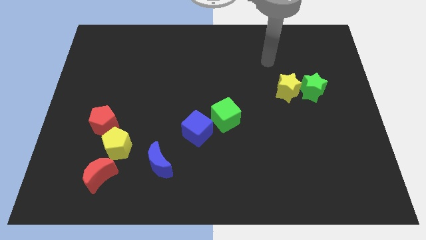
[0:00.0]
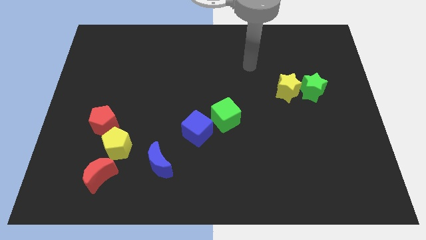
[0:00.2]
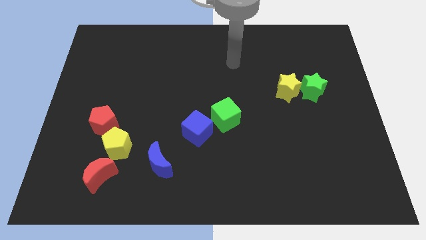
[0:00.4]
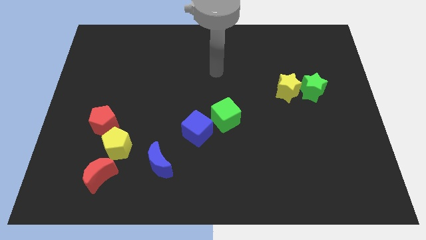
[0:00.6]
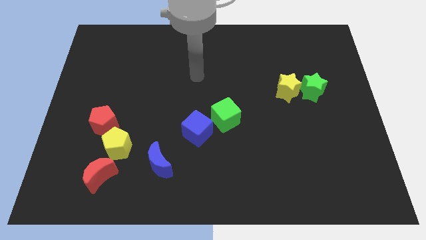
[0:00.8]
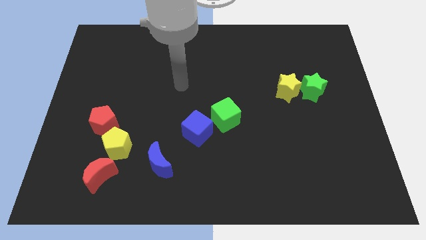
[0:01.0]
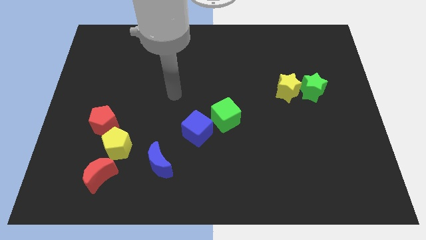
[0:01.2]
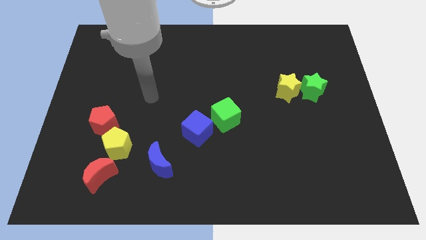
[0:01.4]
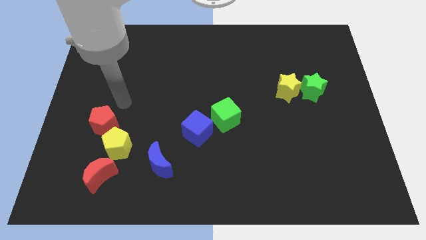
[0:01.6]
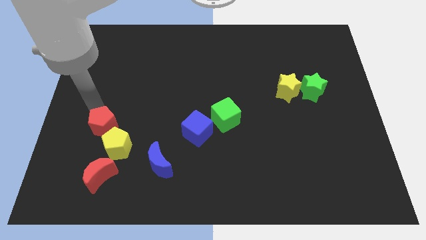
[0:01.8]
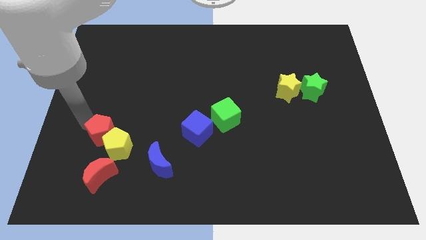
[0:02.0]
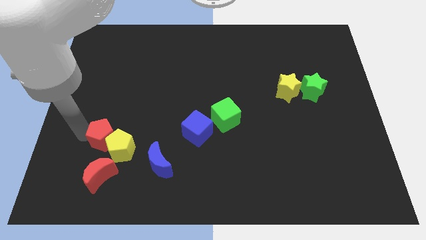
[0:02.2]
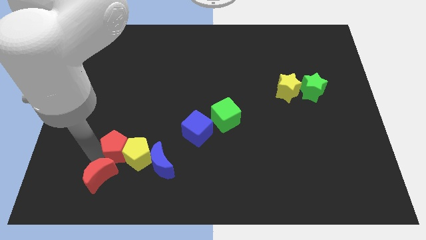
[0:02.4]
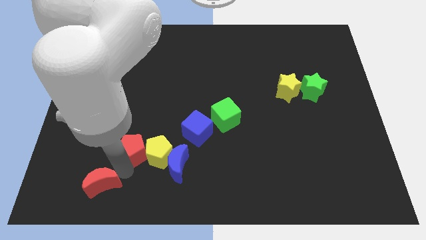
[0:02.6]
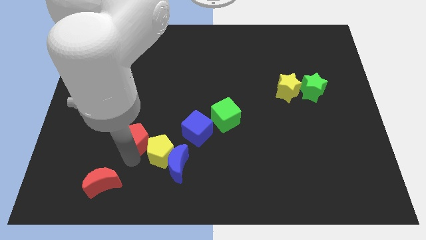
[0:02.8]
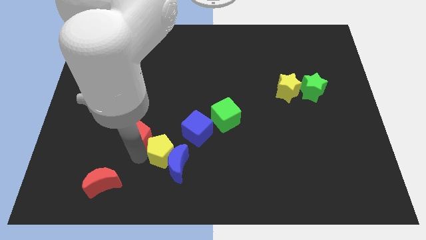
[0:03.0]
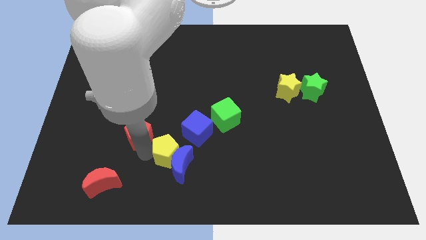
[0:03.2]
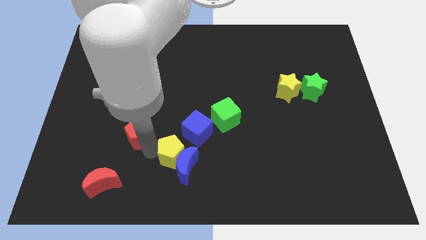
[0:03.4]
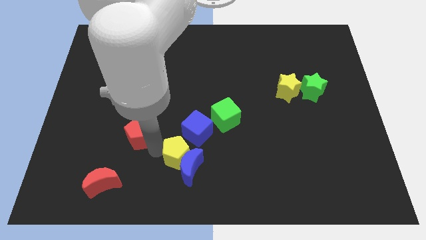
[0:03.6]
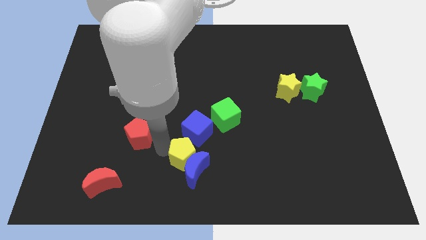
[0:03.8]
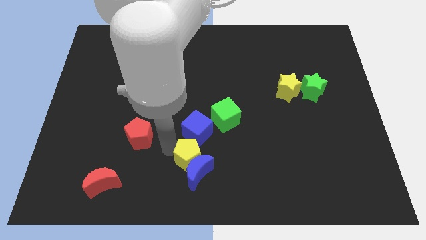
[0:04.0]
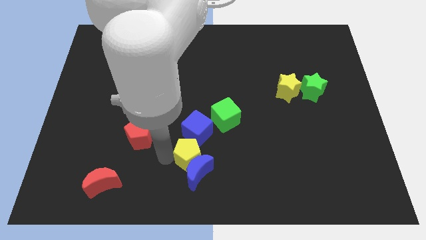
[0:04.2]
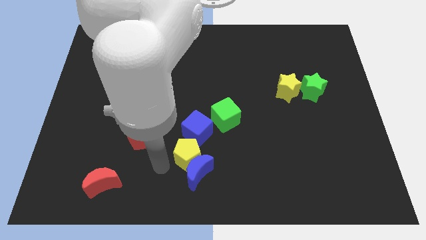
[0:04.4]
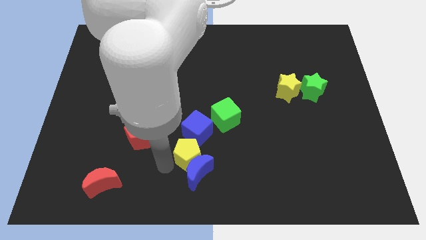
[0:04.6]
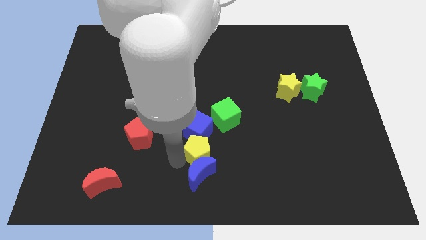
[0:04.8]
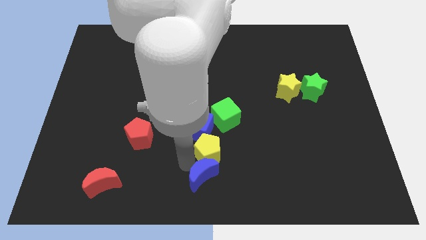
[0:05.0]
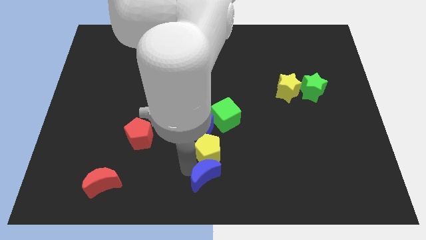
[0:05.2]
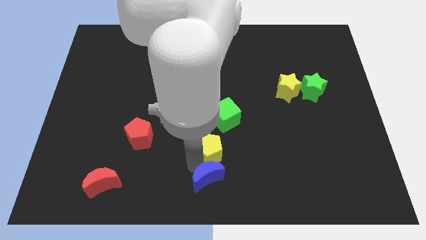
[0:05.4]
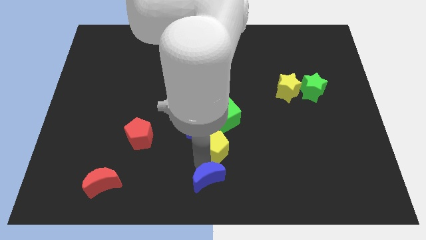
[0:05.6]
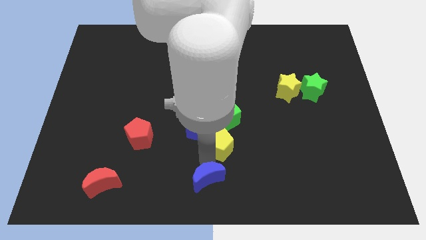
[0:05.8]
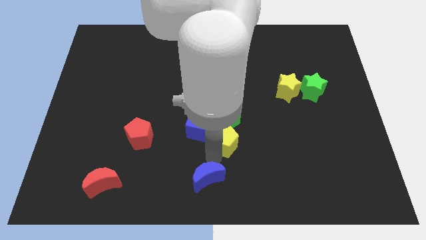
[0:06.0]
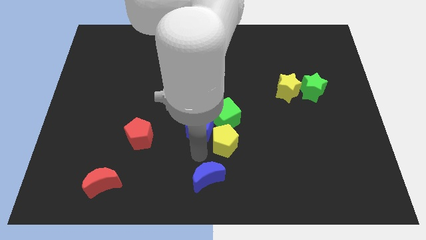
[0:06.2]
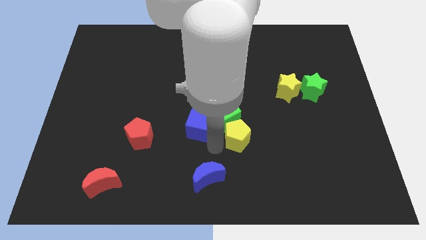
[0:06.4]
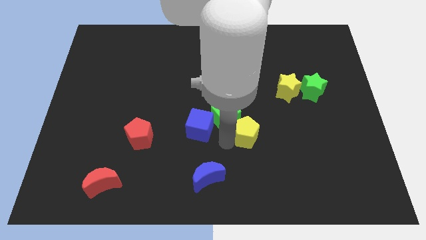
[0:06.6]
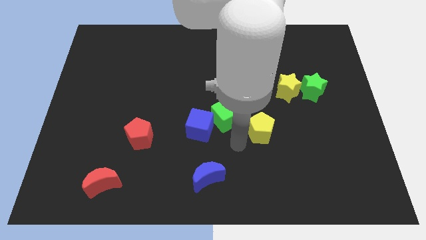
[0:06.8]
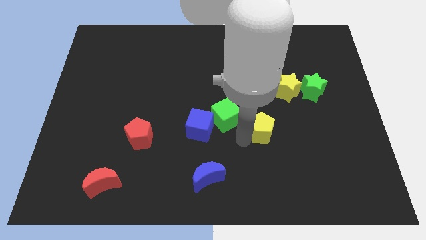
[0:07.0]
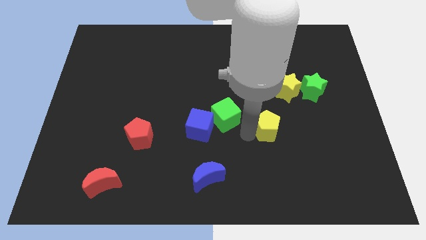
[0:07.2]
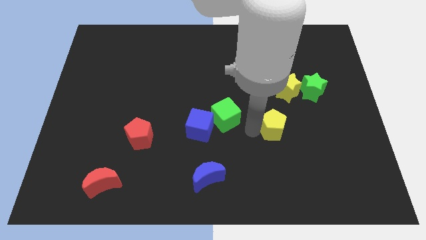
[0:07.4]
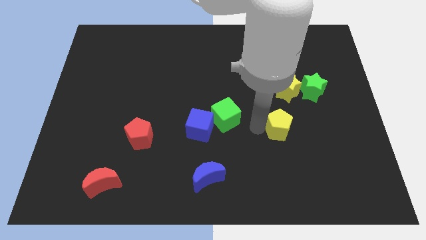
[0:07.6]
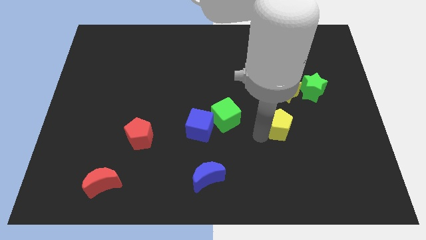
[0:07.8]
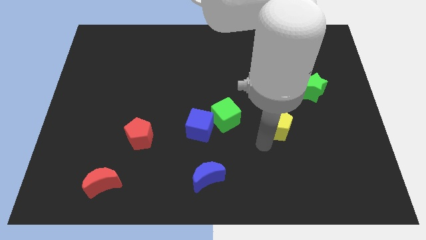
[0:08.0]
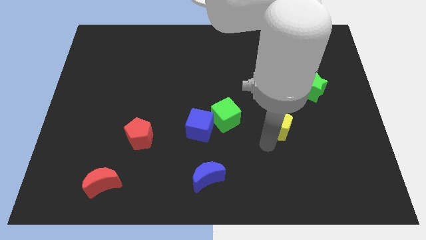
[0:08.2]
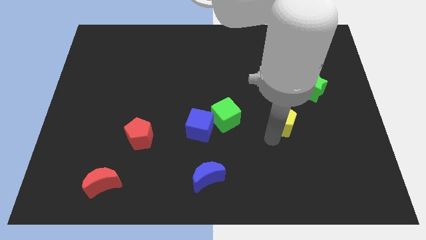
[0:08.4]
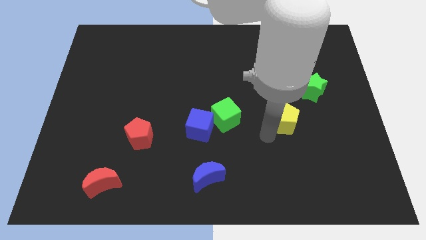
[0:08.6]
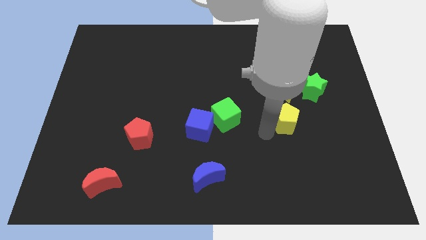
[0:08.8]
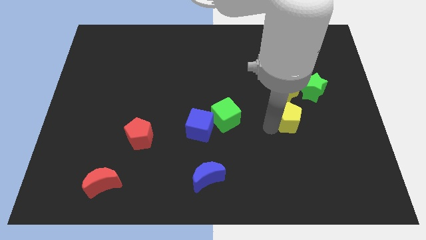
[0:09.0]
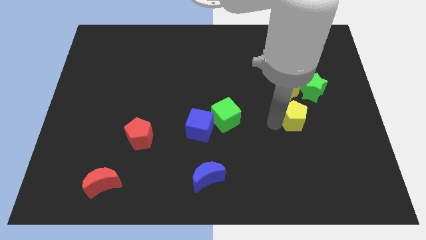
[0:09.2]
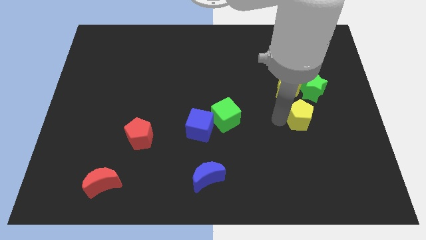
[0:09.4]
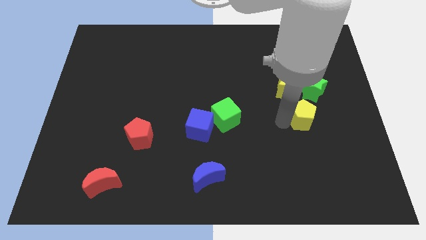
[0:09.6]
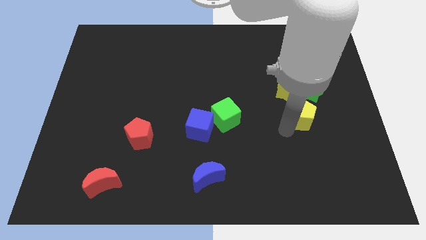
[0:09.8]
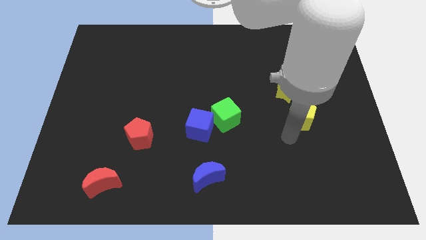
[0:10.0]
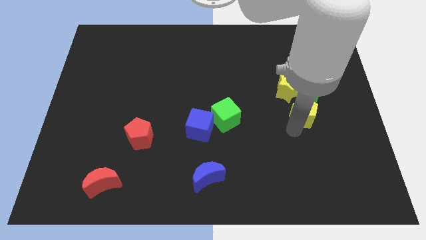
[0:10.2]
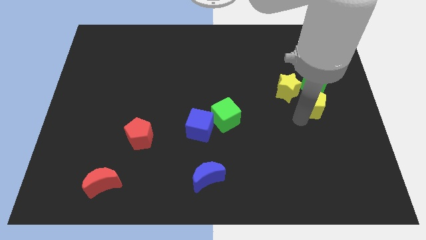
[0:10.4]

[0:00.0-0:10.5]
put the yellow pentagon to the right of the yellow star

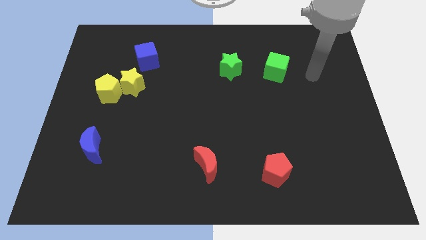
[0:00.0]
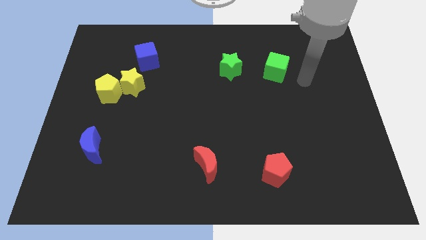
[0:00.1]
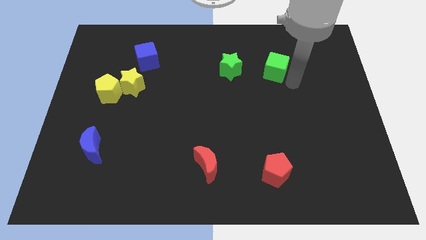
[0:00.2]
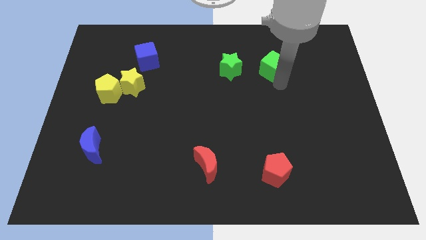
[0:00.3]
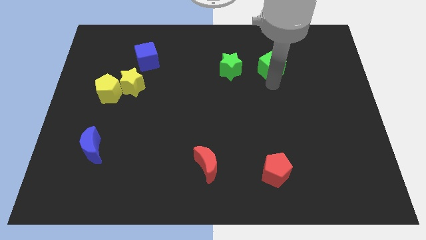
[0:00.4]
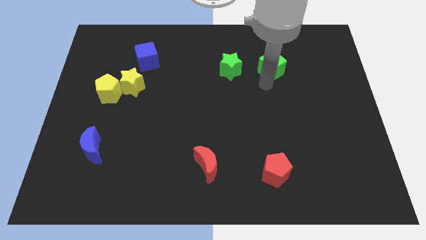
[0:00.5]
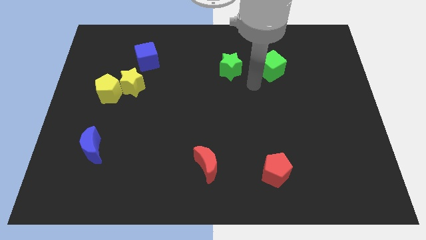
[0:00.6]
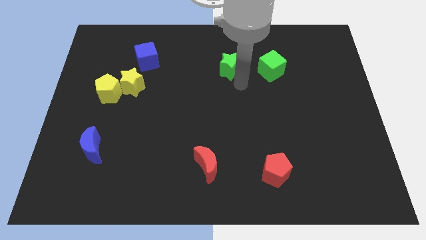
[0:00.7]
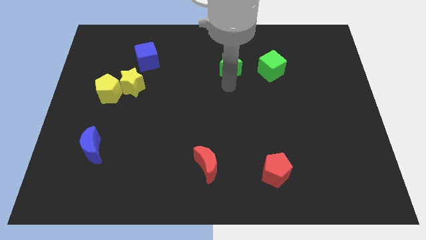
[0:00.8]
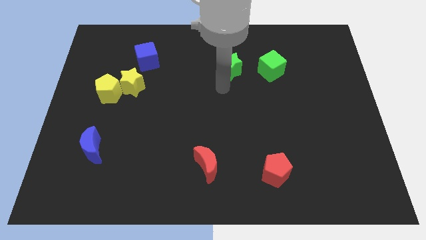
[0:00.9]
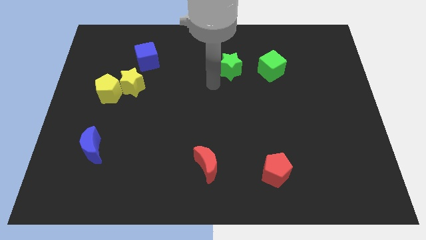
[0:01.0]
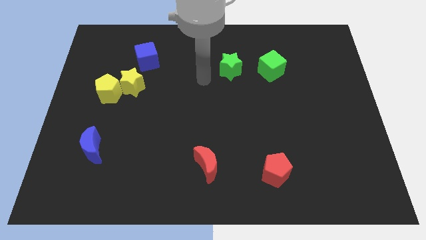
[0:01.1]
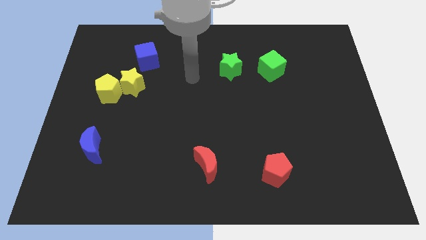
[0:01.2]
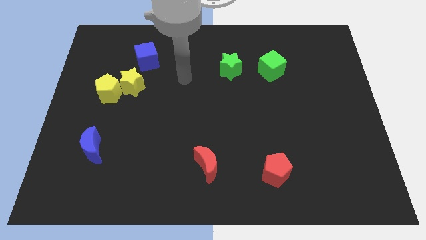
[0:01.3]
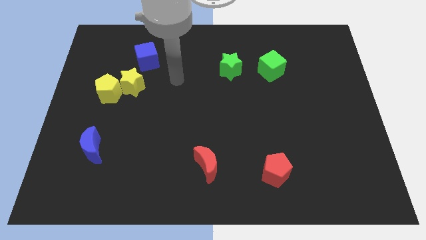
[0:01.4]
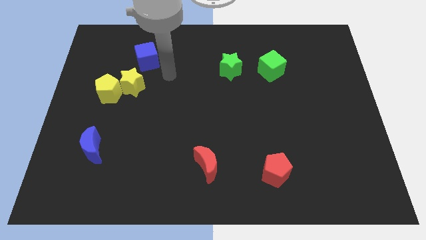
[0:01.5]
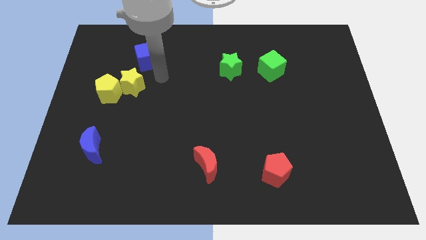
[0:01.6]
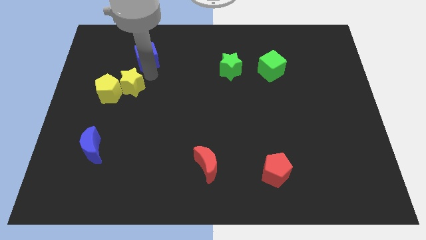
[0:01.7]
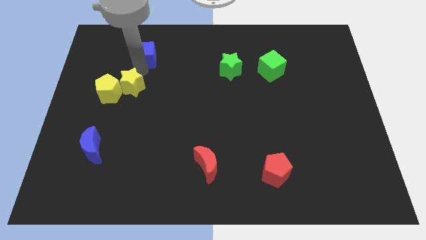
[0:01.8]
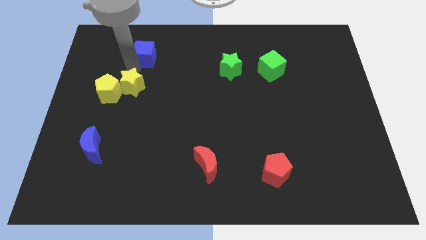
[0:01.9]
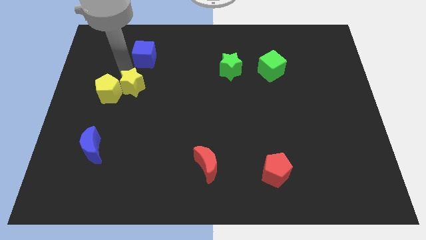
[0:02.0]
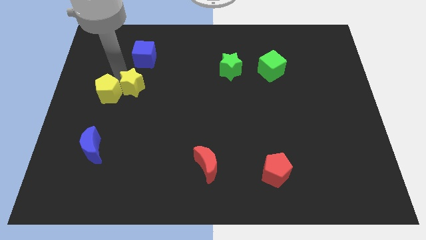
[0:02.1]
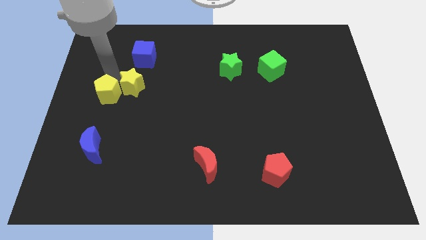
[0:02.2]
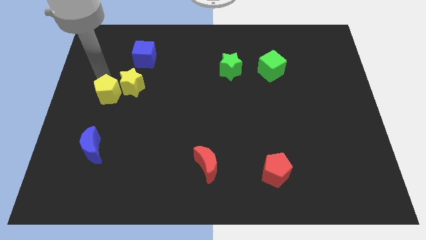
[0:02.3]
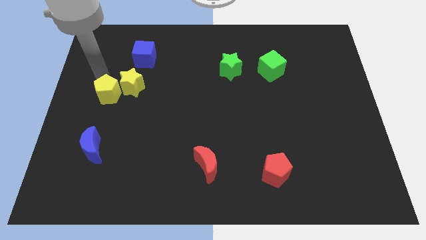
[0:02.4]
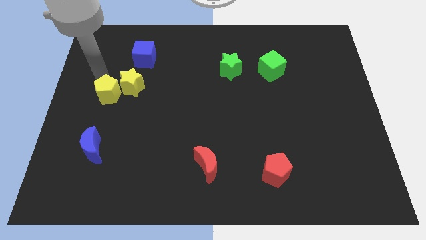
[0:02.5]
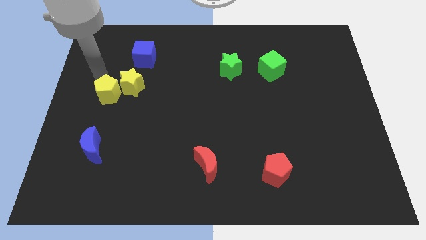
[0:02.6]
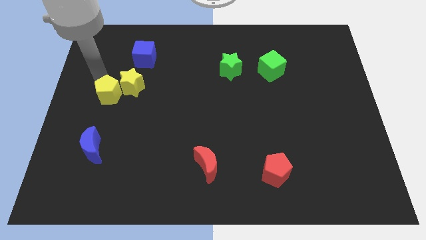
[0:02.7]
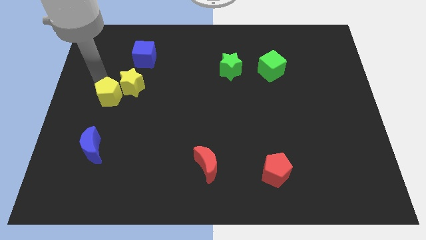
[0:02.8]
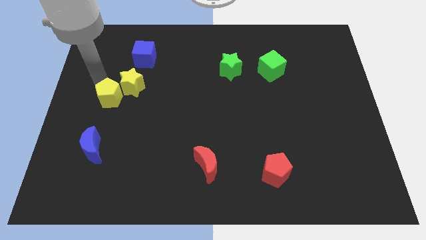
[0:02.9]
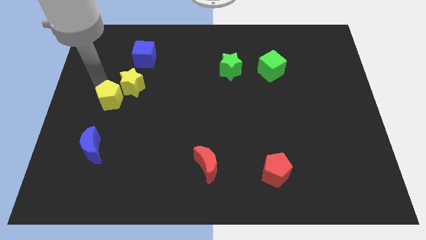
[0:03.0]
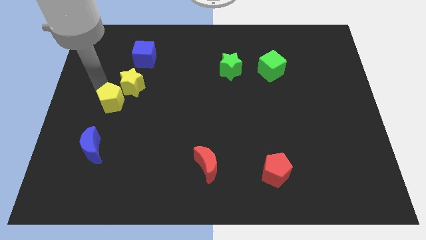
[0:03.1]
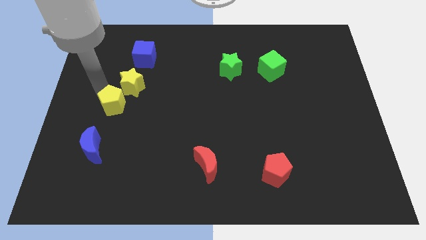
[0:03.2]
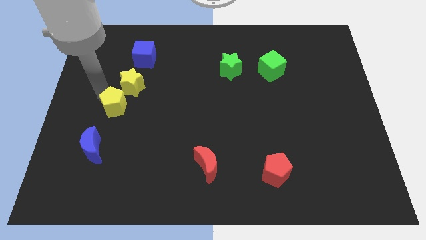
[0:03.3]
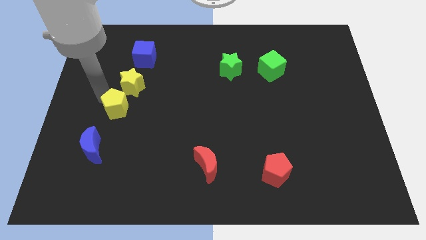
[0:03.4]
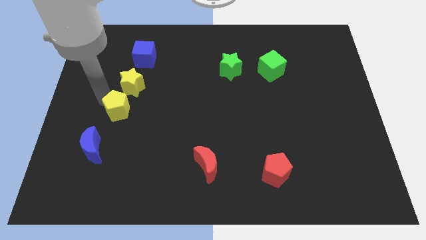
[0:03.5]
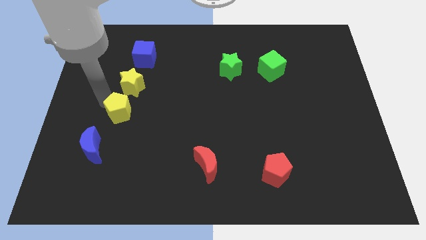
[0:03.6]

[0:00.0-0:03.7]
push the yellow pentagon to the top right side of the blue moon
